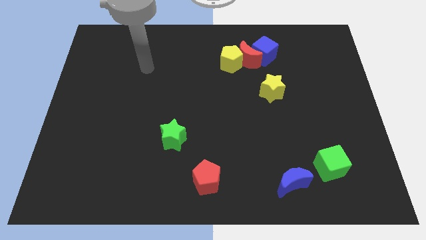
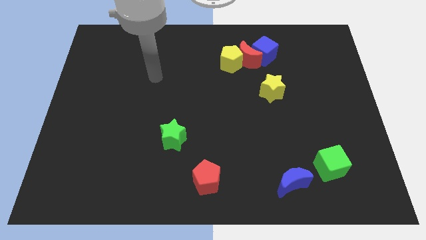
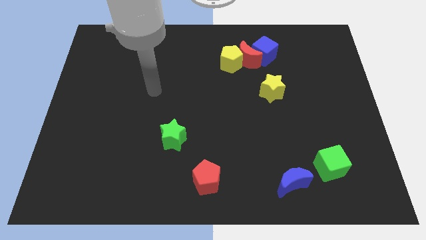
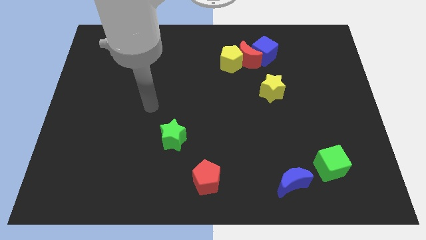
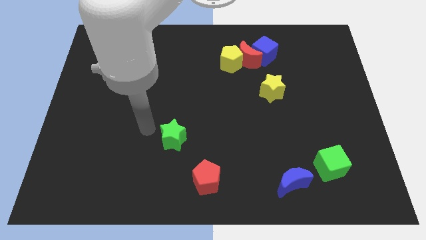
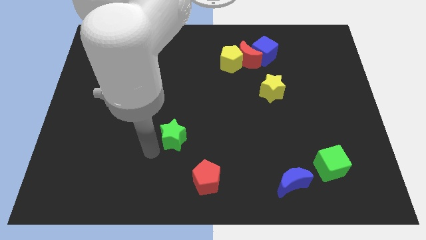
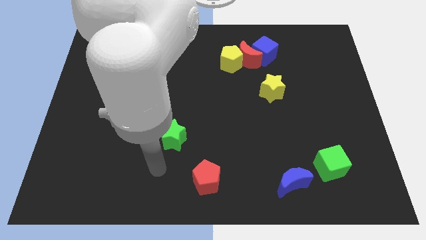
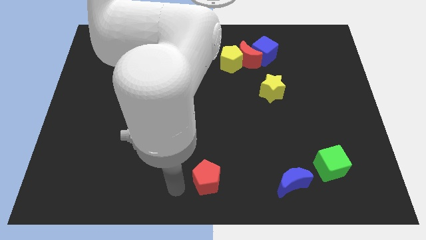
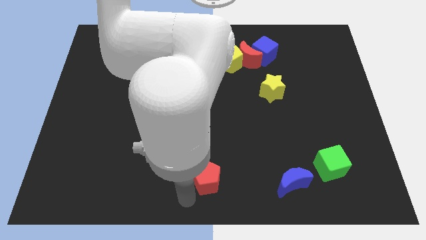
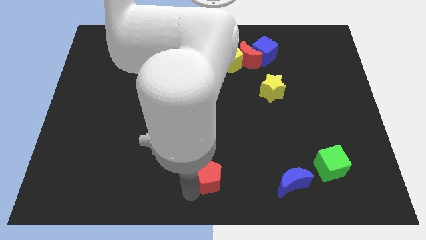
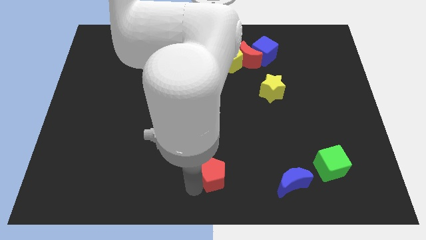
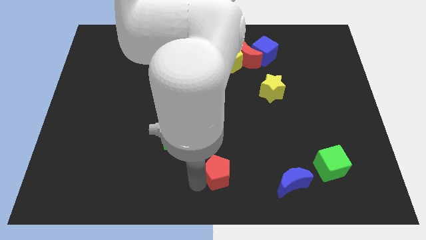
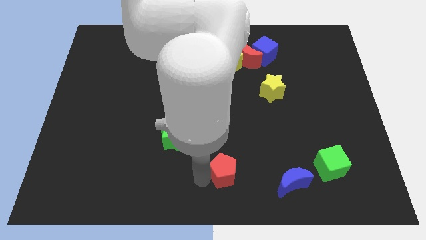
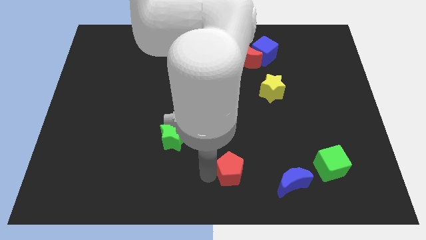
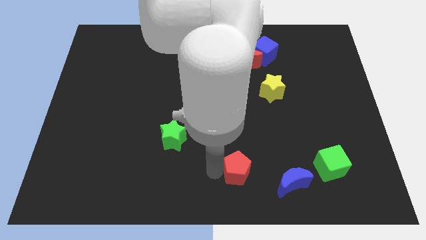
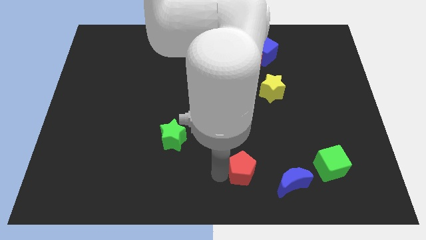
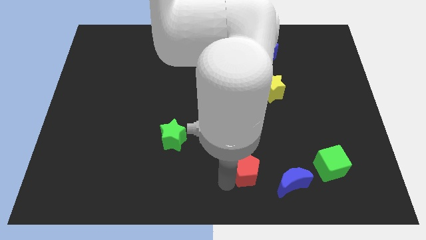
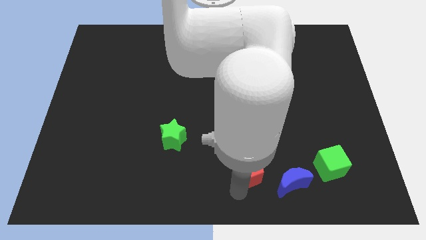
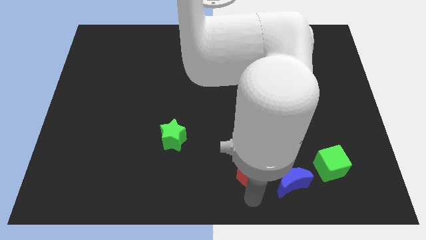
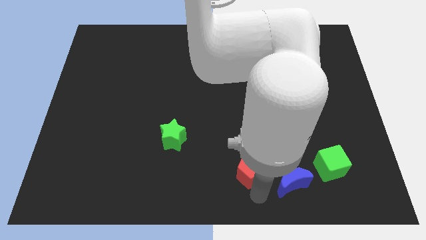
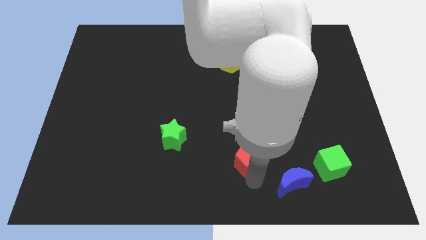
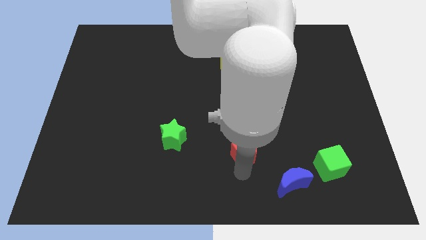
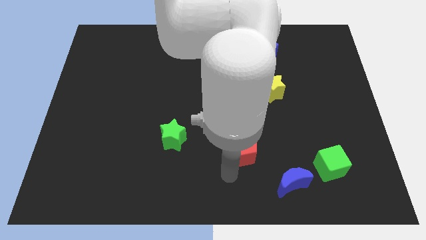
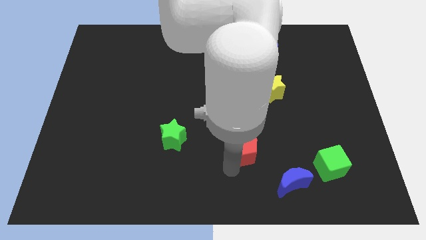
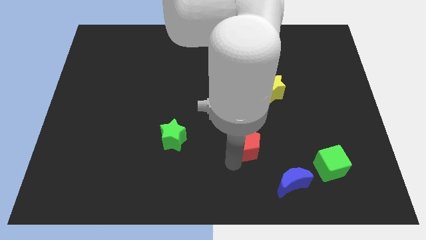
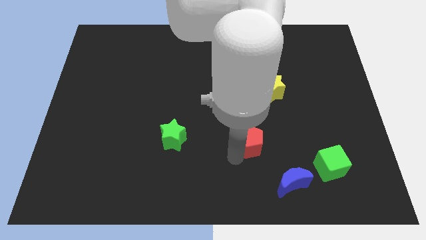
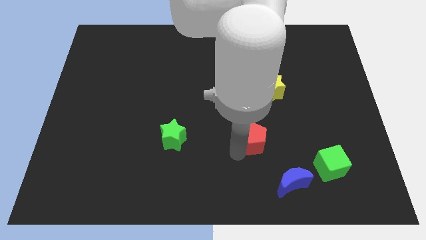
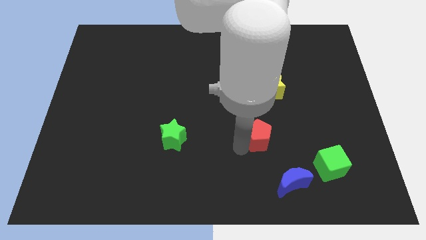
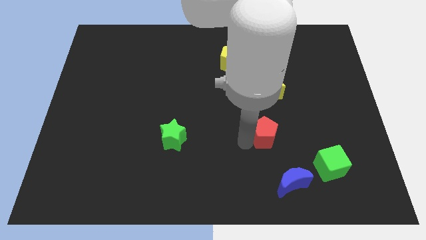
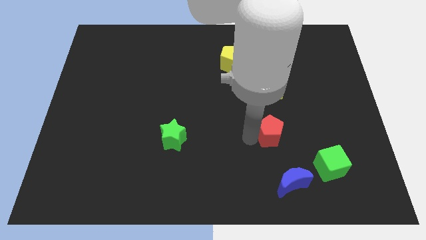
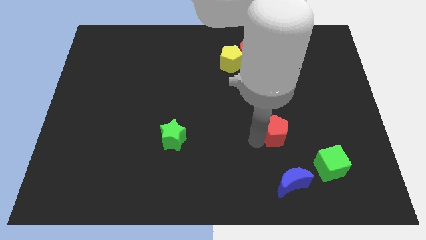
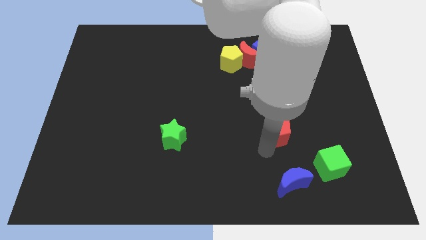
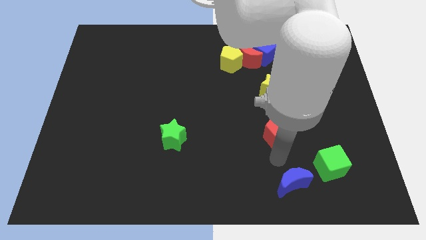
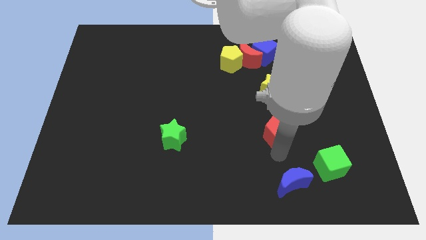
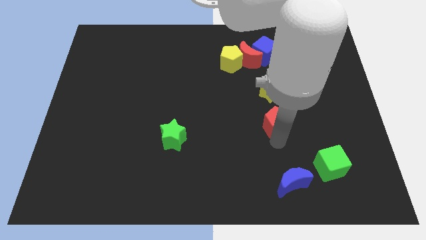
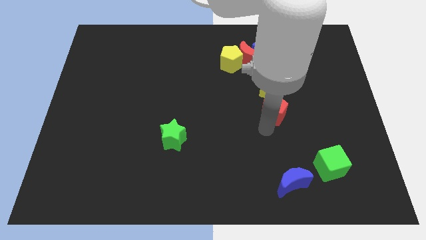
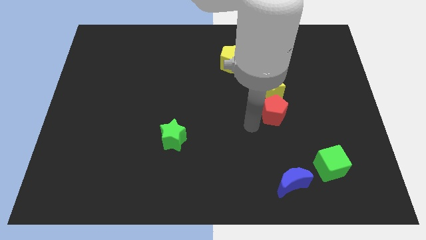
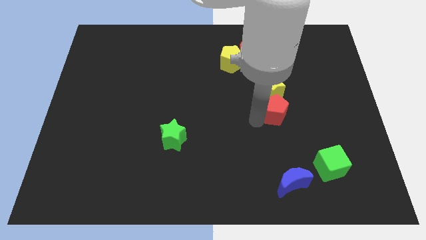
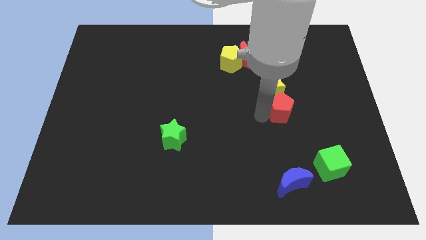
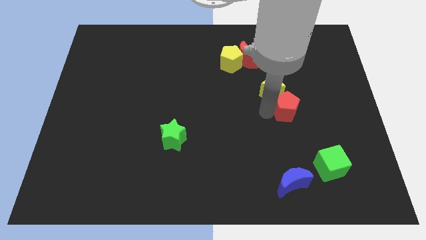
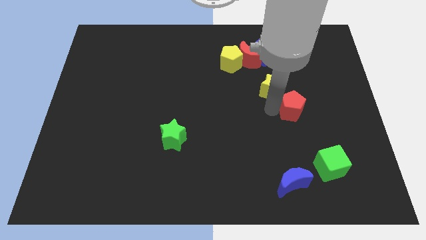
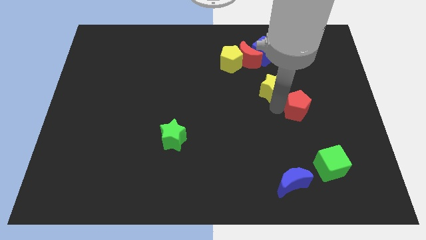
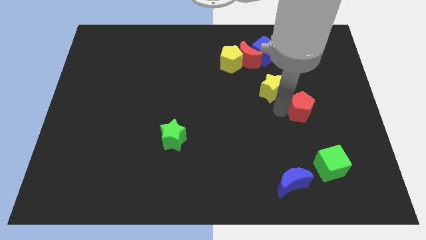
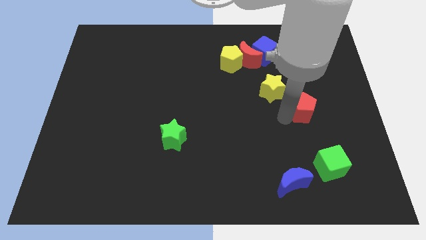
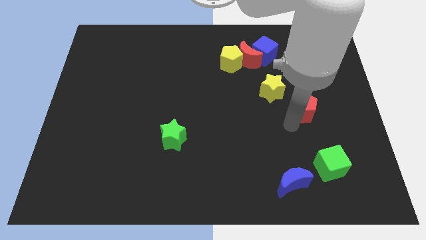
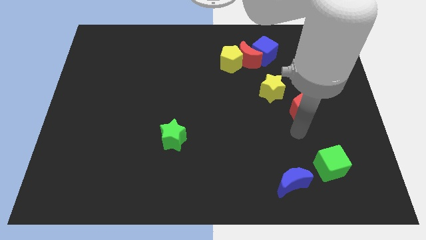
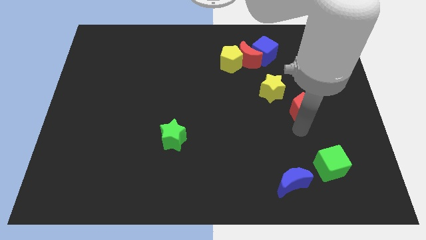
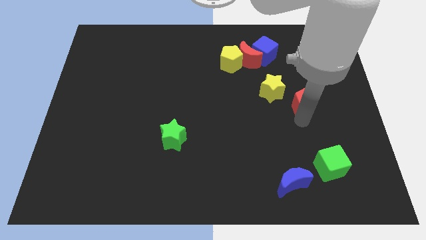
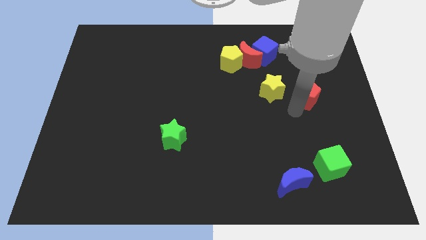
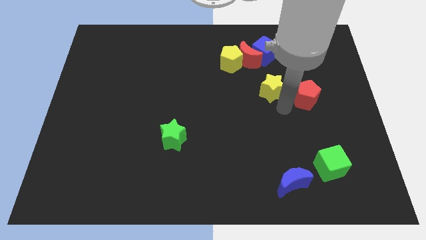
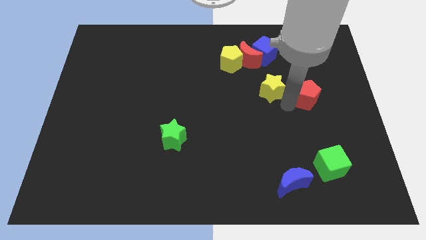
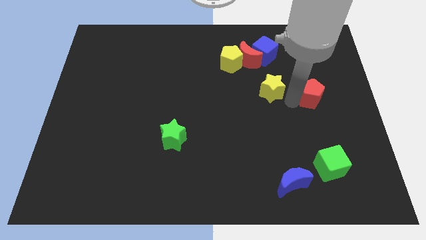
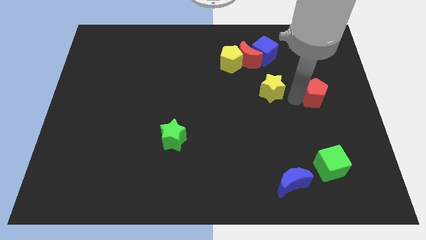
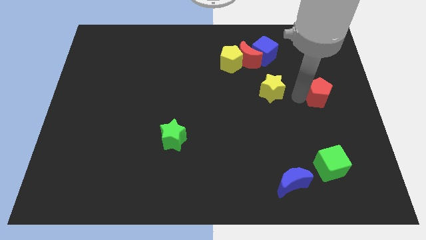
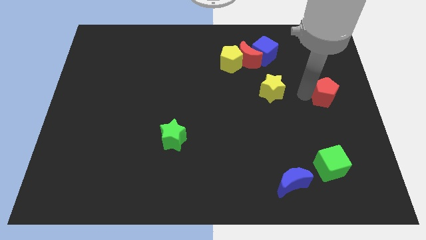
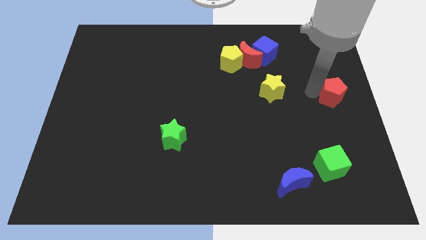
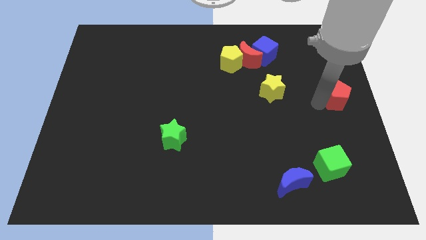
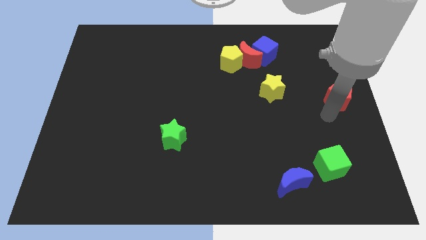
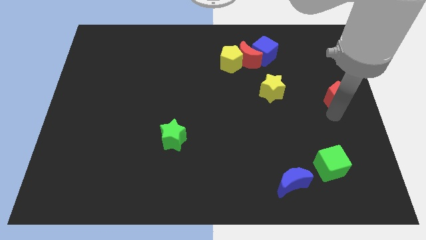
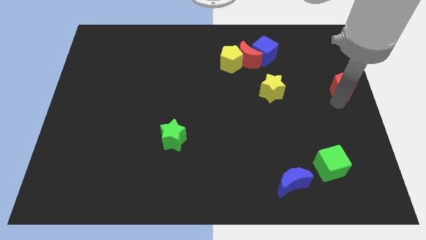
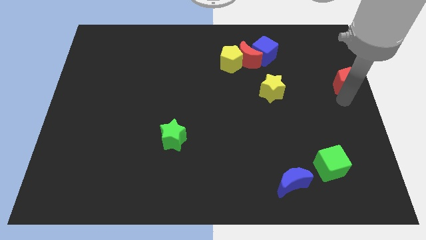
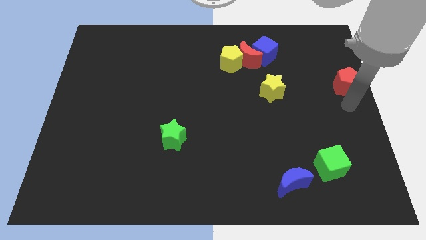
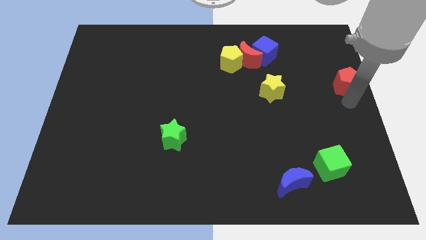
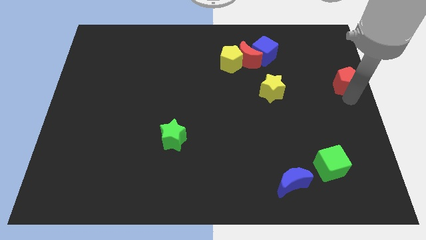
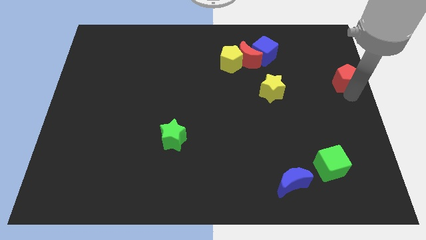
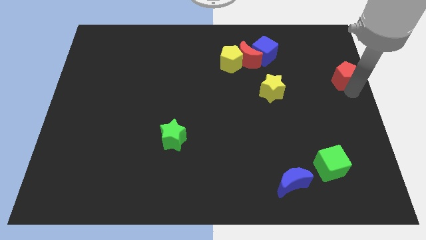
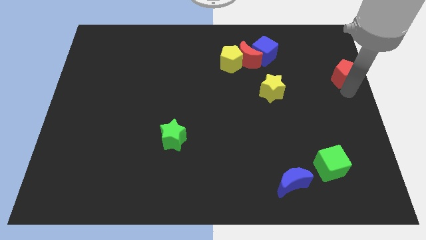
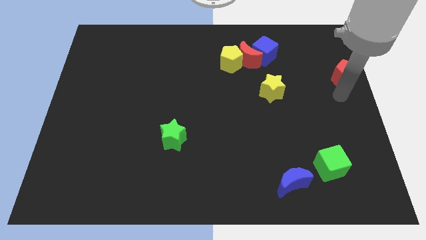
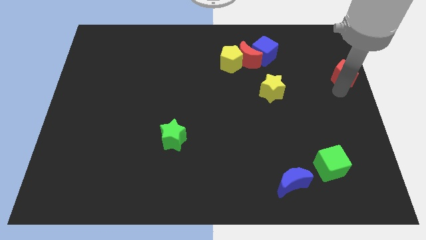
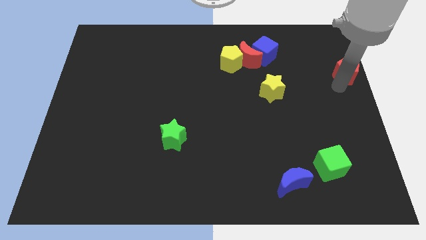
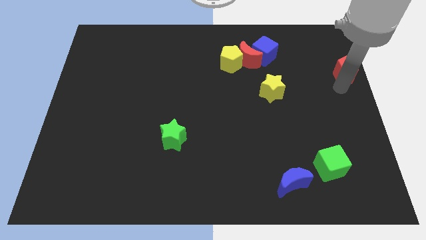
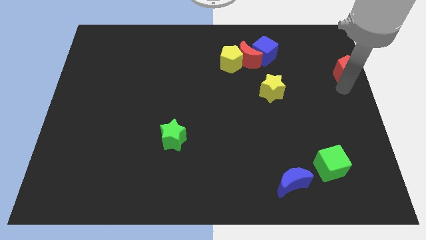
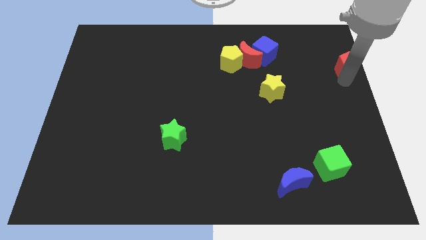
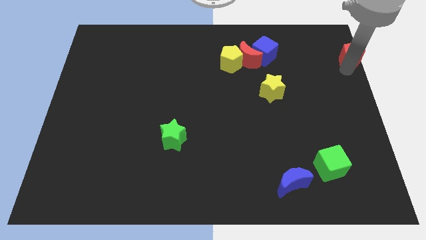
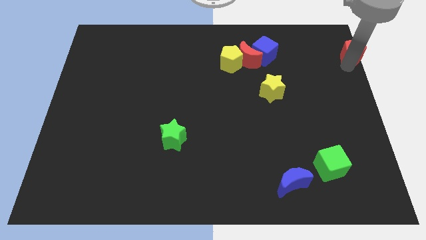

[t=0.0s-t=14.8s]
put the red pentagon to the upper right corner
